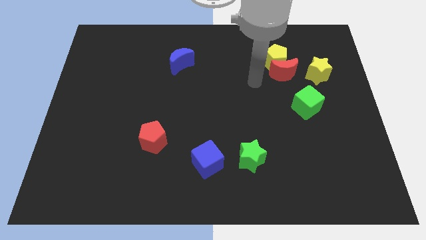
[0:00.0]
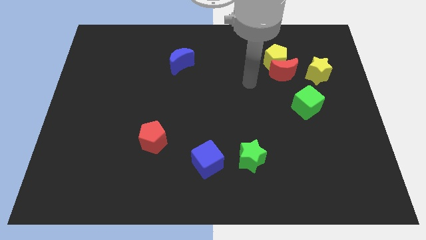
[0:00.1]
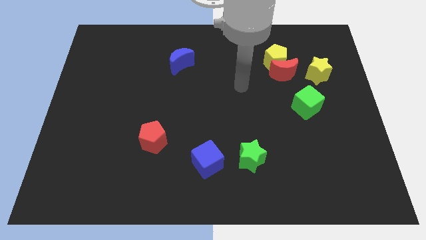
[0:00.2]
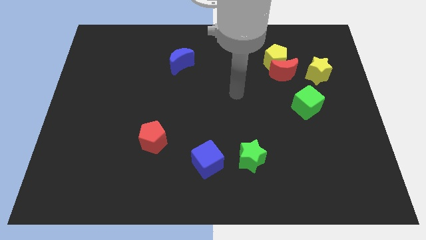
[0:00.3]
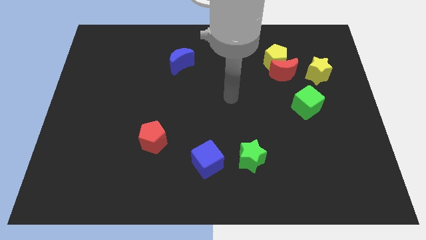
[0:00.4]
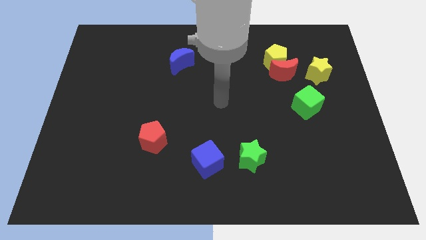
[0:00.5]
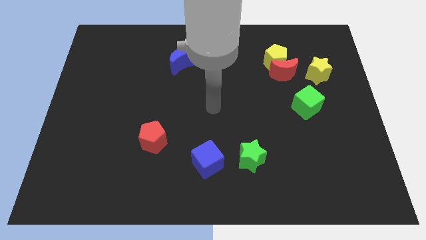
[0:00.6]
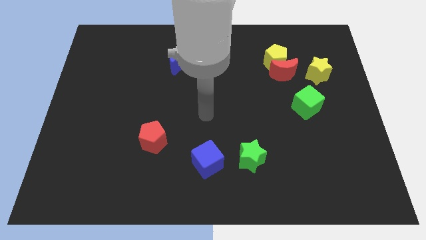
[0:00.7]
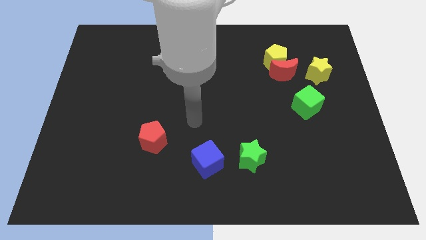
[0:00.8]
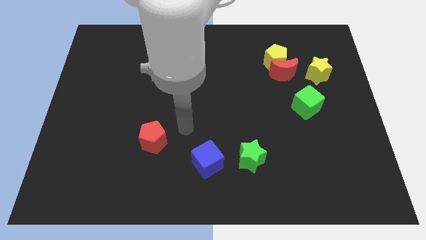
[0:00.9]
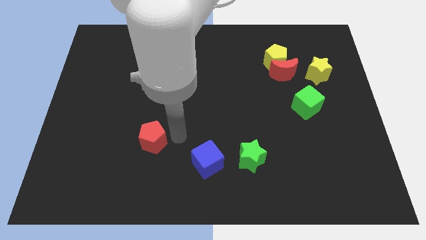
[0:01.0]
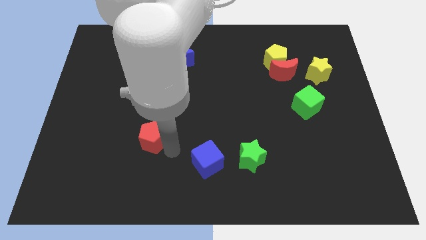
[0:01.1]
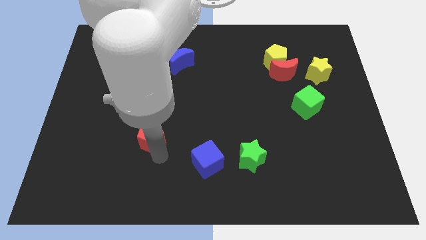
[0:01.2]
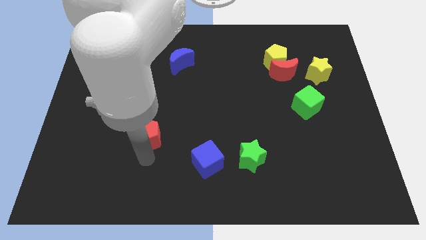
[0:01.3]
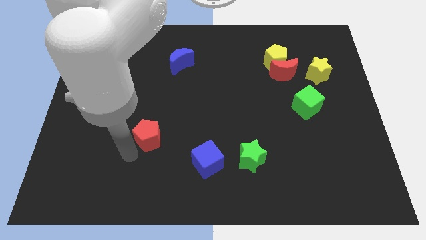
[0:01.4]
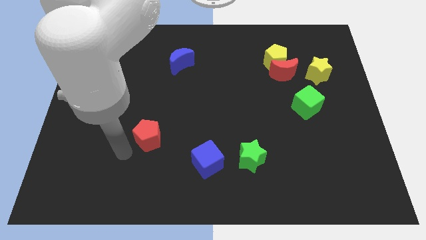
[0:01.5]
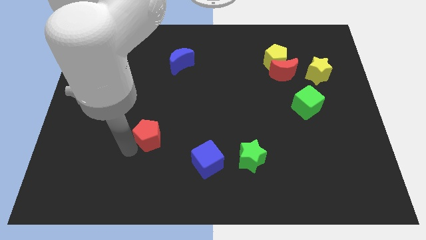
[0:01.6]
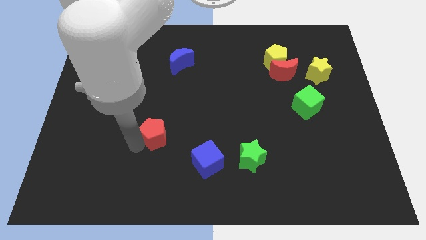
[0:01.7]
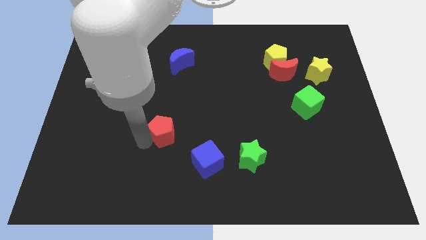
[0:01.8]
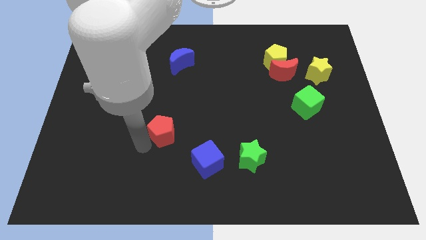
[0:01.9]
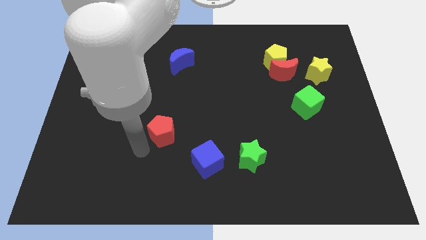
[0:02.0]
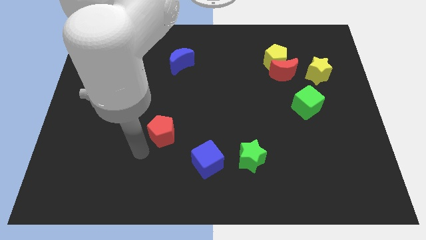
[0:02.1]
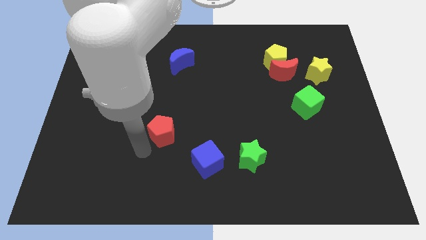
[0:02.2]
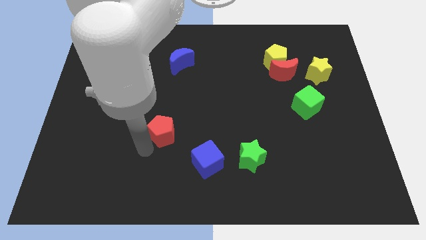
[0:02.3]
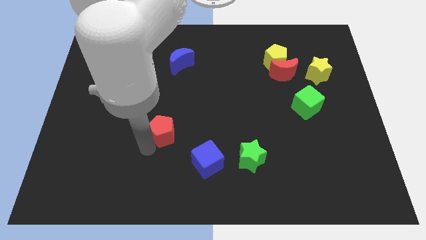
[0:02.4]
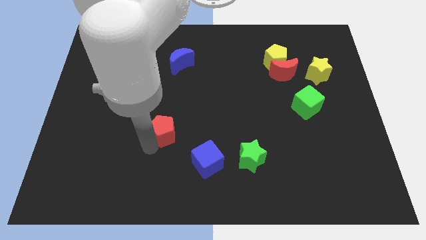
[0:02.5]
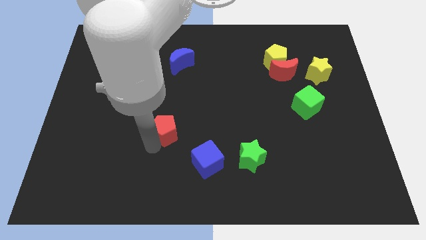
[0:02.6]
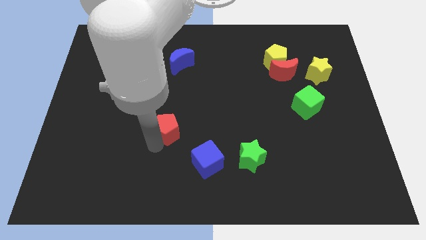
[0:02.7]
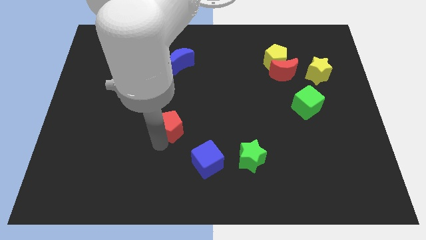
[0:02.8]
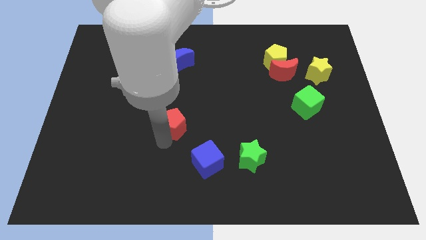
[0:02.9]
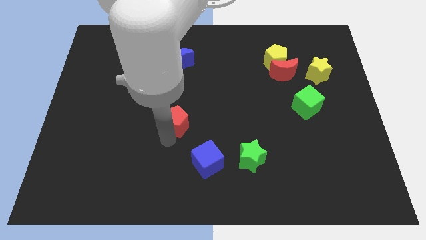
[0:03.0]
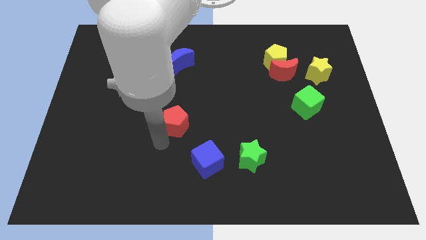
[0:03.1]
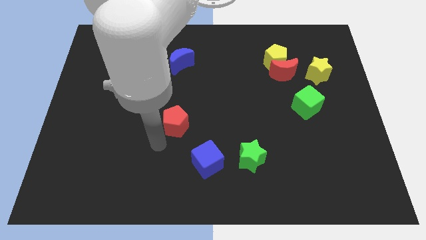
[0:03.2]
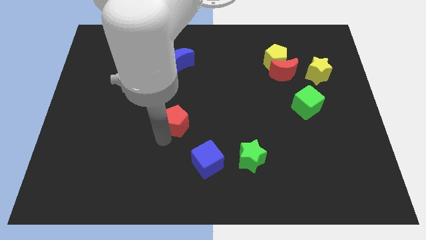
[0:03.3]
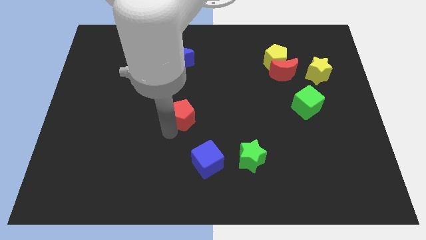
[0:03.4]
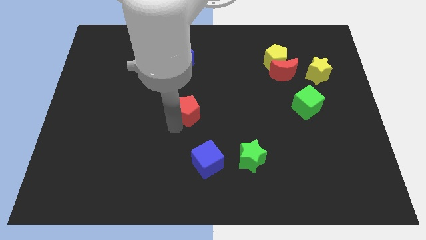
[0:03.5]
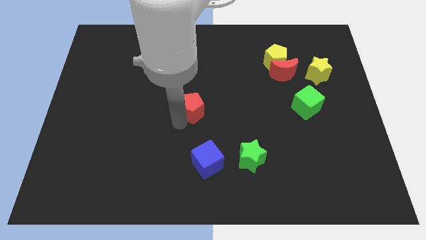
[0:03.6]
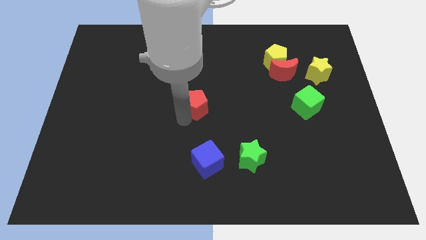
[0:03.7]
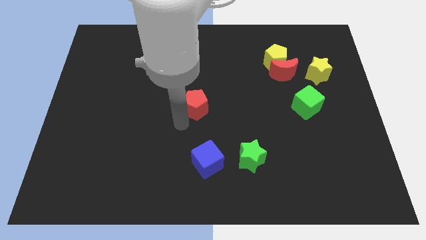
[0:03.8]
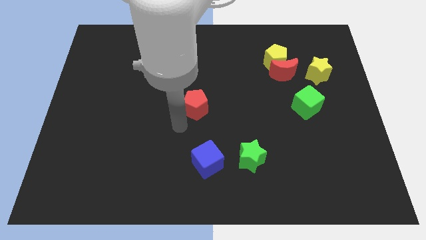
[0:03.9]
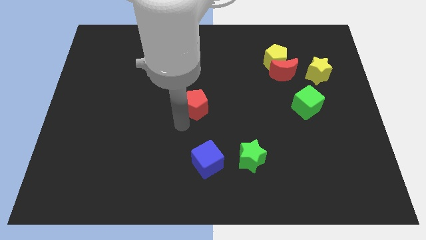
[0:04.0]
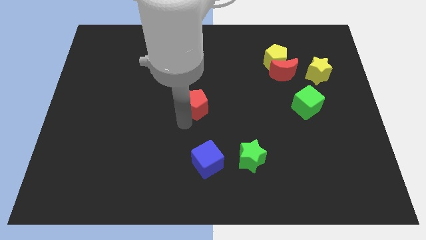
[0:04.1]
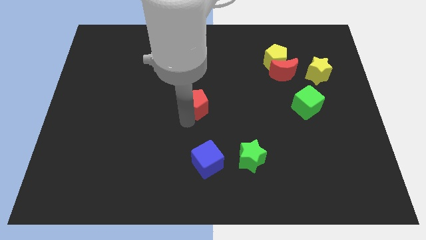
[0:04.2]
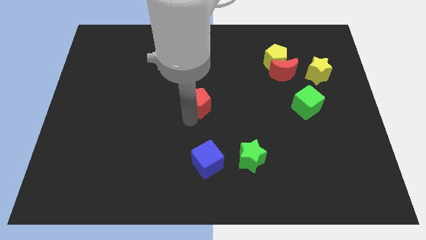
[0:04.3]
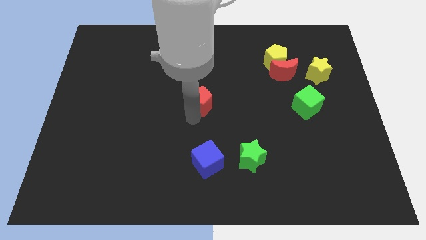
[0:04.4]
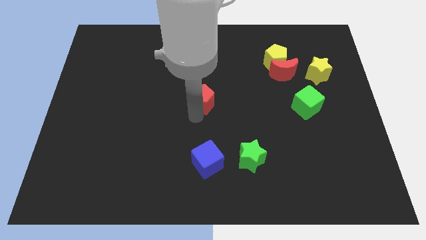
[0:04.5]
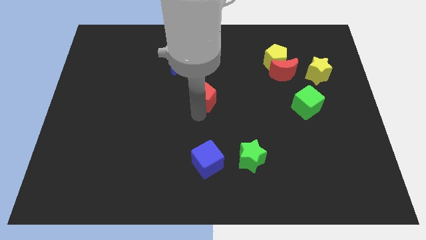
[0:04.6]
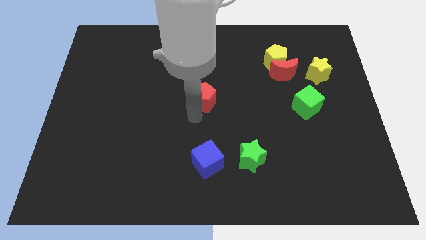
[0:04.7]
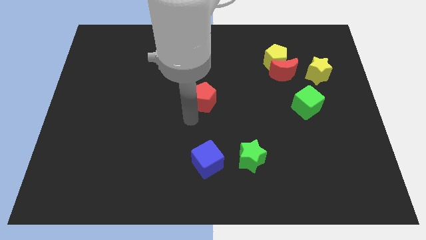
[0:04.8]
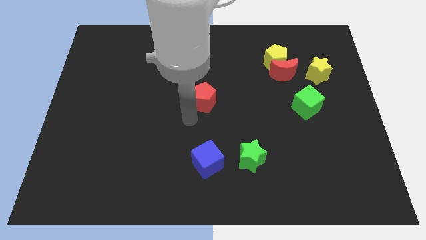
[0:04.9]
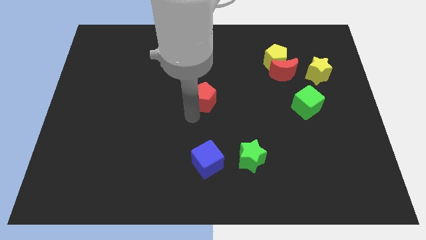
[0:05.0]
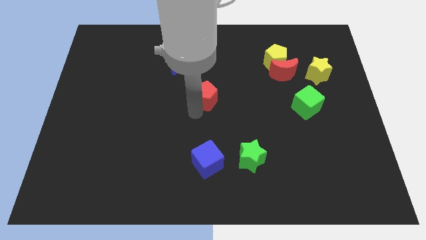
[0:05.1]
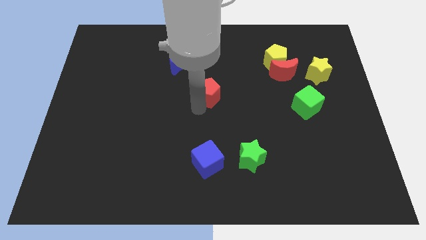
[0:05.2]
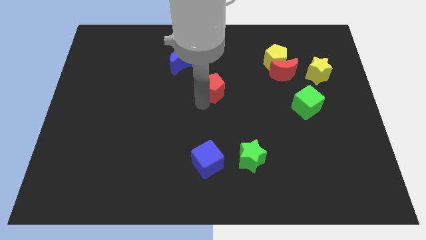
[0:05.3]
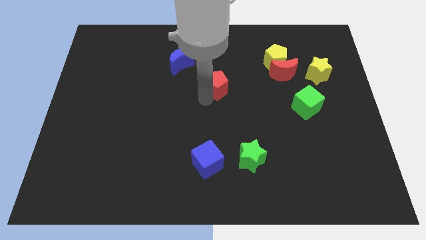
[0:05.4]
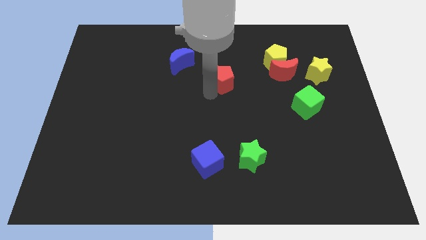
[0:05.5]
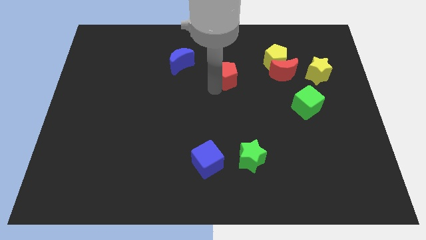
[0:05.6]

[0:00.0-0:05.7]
slide the red pentagon just left of the red moon
